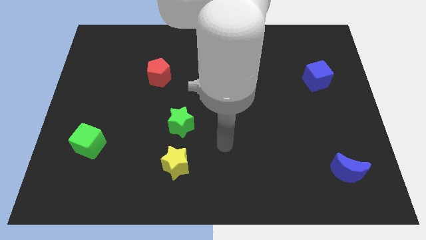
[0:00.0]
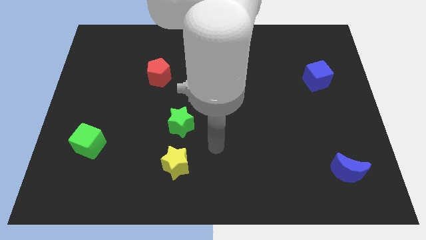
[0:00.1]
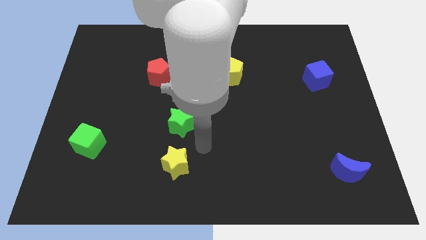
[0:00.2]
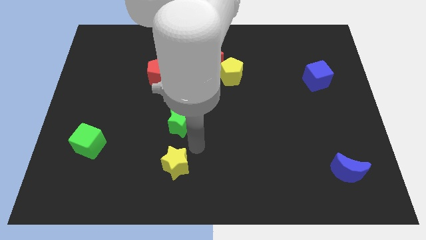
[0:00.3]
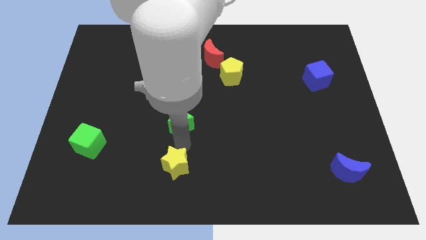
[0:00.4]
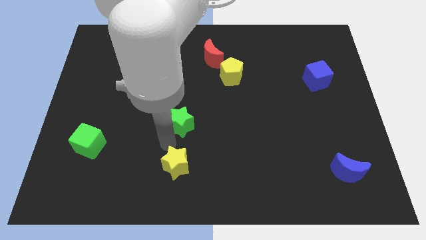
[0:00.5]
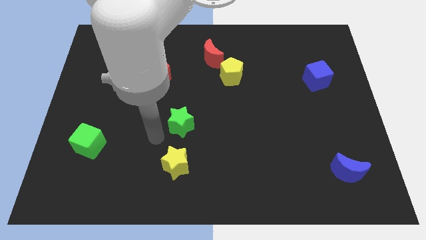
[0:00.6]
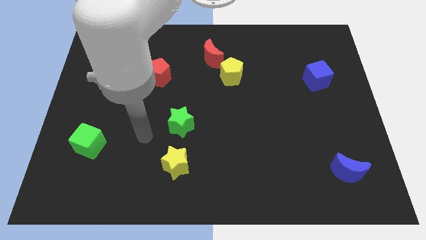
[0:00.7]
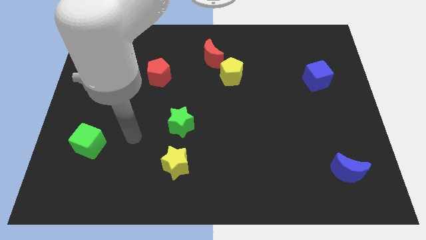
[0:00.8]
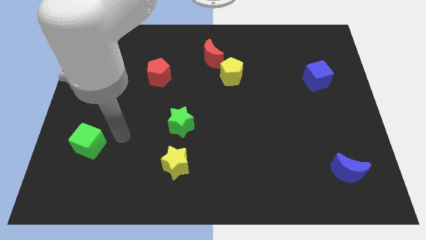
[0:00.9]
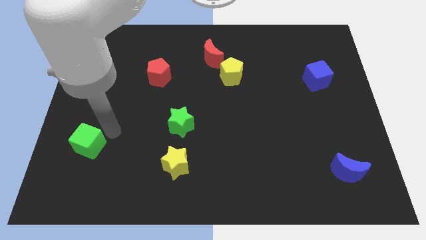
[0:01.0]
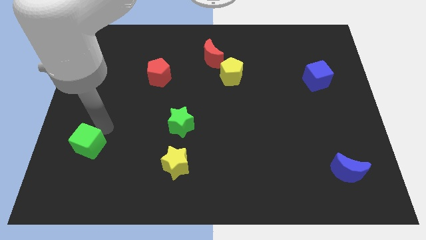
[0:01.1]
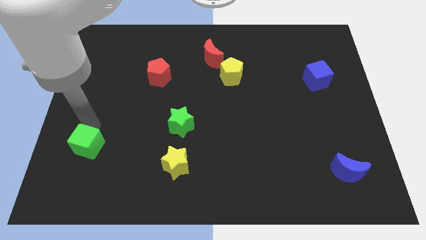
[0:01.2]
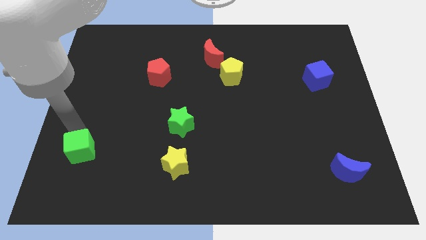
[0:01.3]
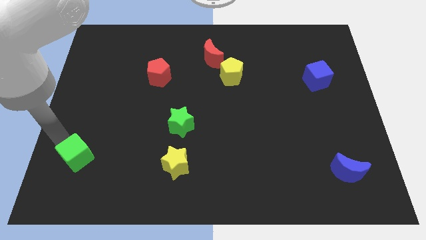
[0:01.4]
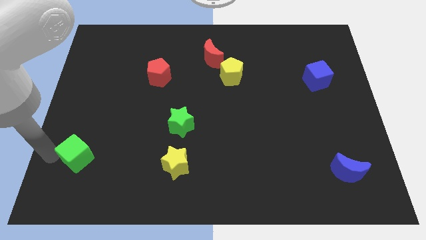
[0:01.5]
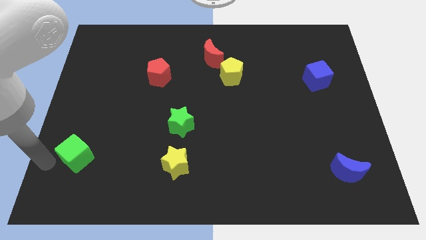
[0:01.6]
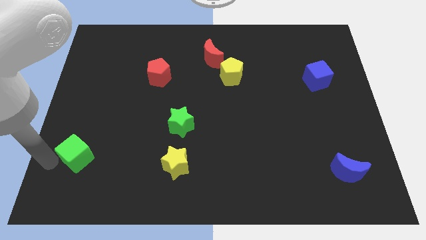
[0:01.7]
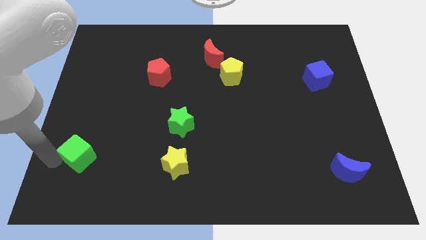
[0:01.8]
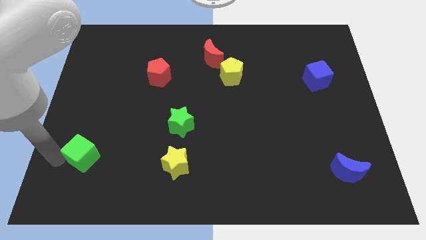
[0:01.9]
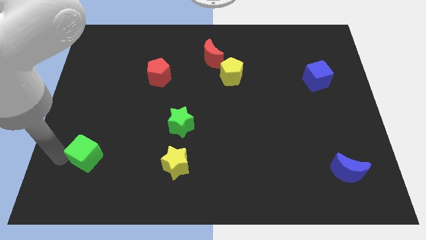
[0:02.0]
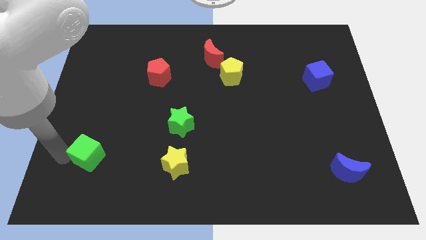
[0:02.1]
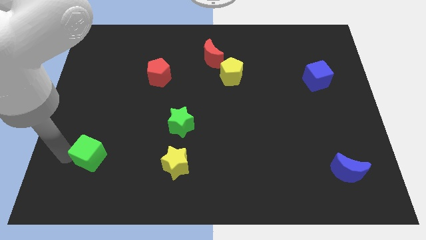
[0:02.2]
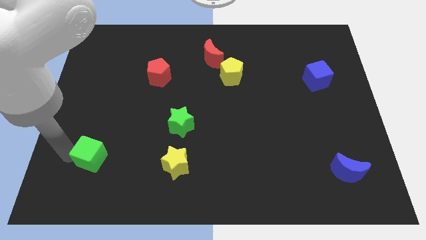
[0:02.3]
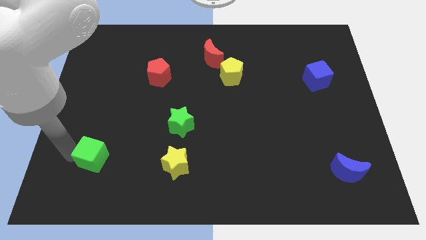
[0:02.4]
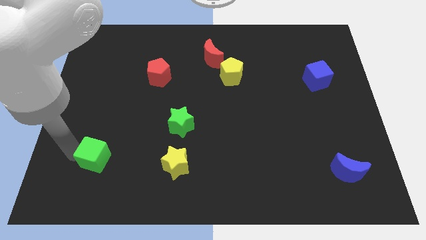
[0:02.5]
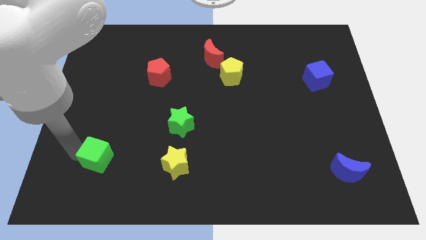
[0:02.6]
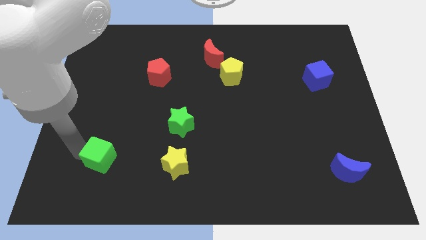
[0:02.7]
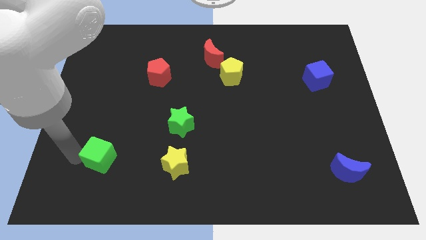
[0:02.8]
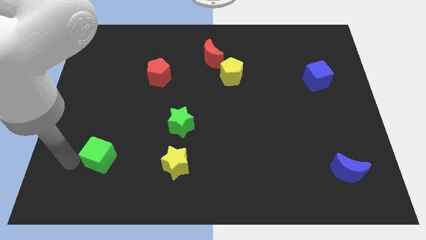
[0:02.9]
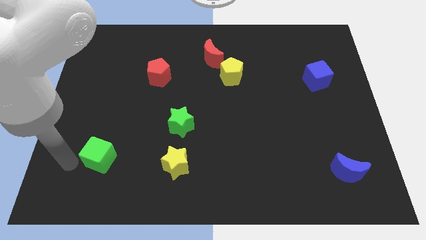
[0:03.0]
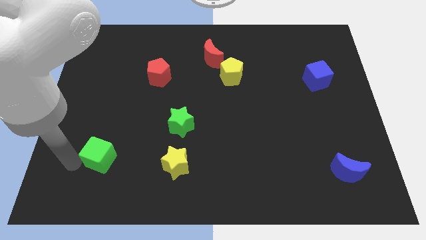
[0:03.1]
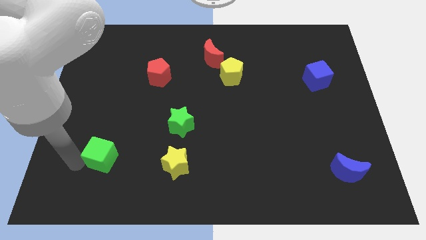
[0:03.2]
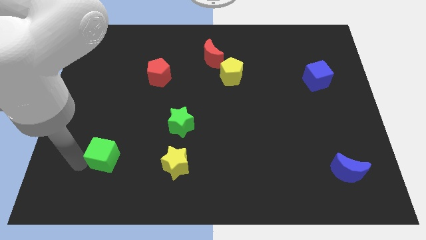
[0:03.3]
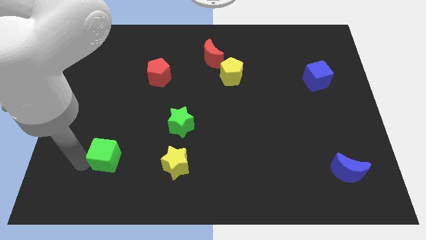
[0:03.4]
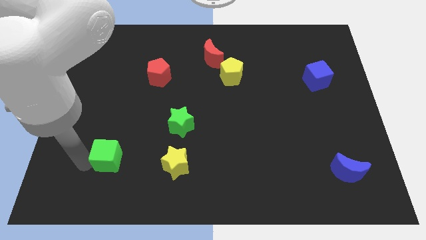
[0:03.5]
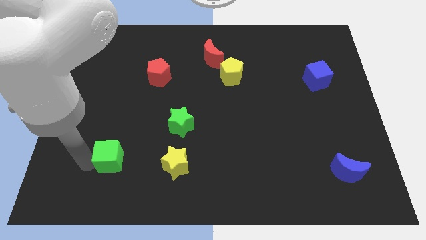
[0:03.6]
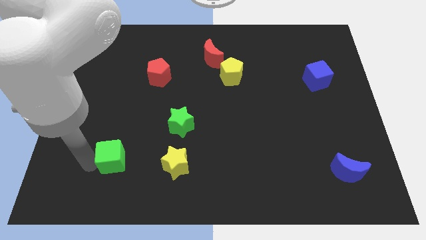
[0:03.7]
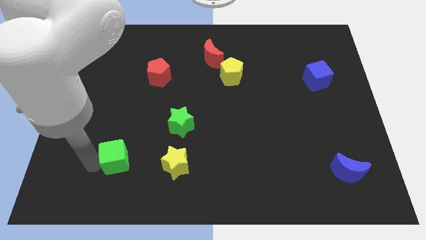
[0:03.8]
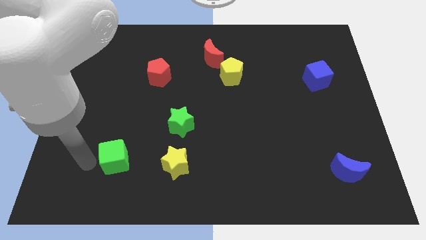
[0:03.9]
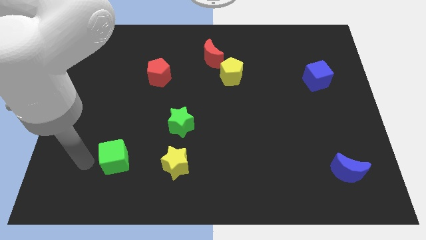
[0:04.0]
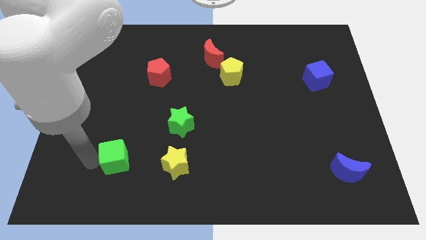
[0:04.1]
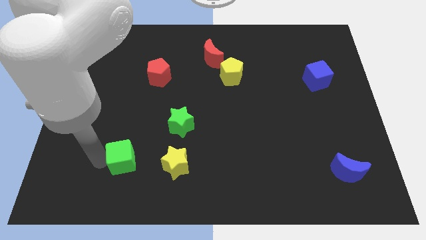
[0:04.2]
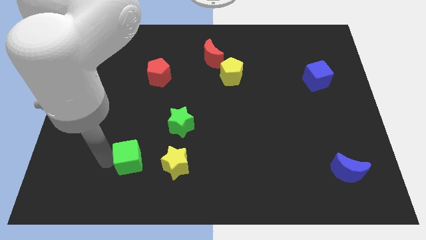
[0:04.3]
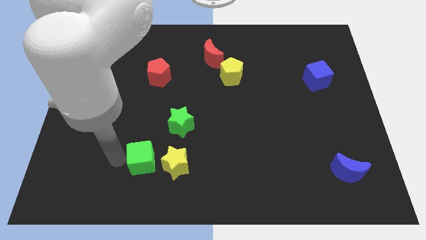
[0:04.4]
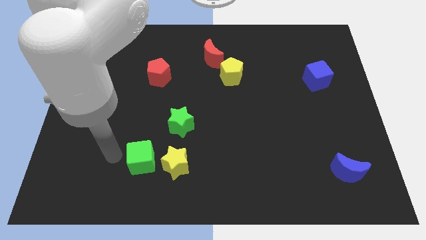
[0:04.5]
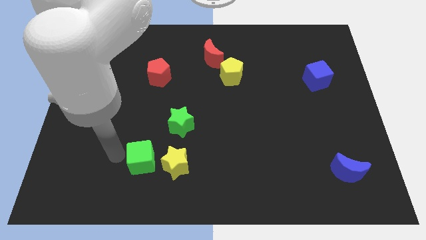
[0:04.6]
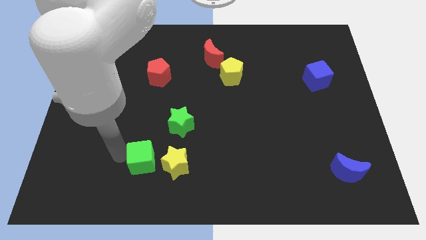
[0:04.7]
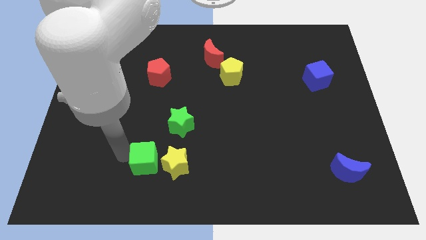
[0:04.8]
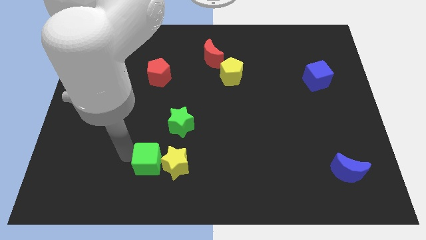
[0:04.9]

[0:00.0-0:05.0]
put the green cube towards the yellow star

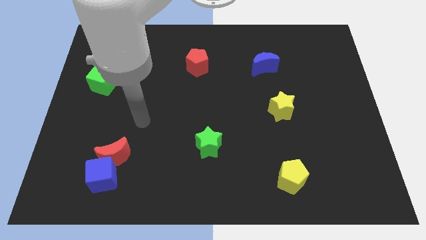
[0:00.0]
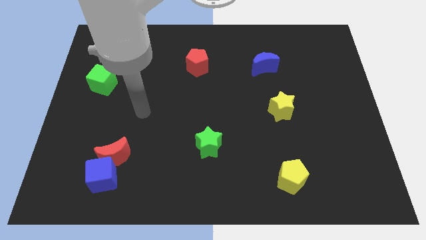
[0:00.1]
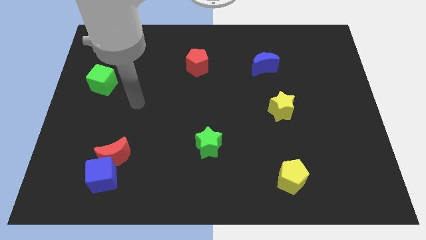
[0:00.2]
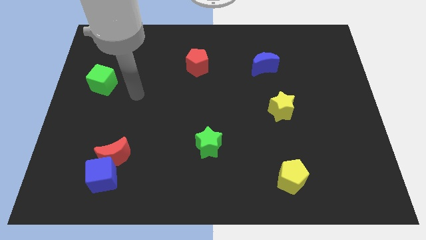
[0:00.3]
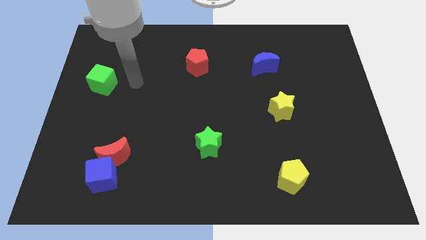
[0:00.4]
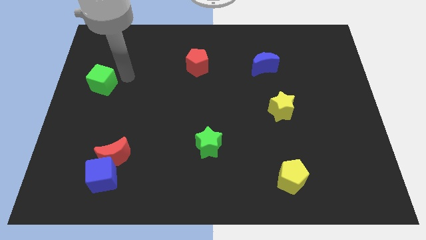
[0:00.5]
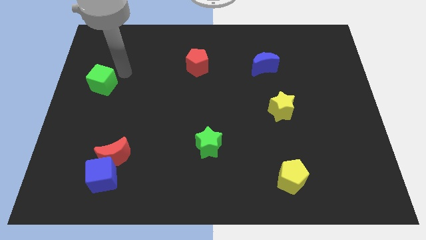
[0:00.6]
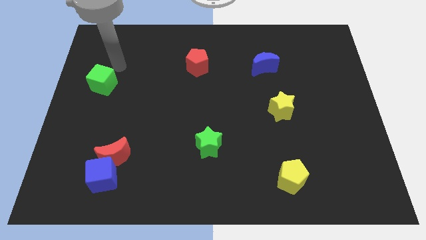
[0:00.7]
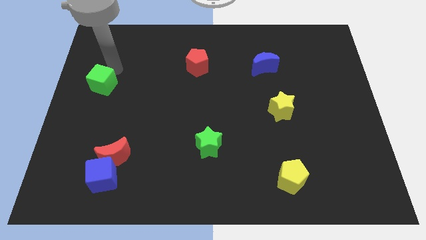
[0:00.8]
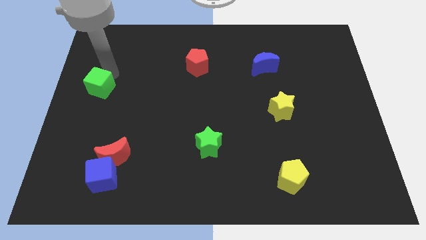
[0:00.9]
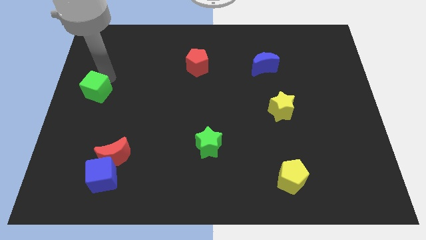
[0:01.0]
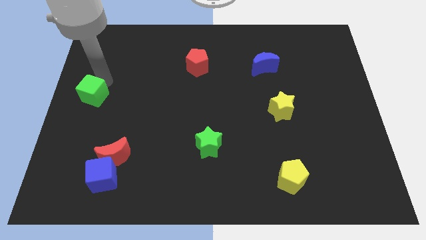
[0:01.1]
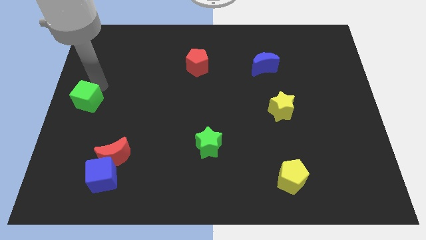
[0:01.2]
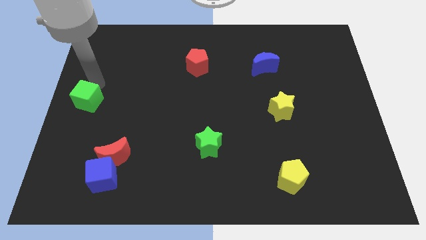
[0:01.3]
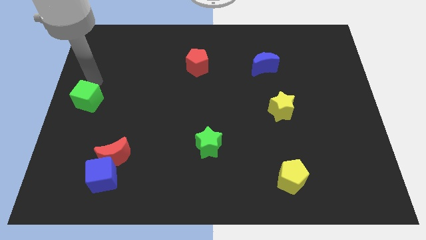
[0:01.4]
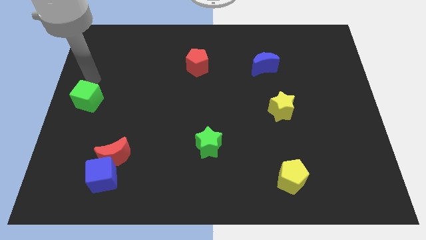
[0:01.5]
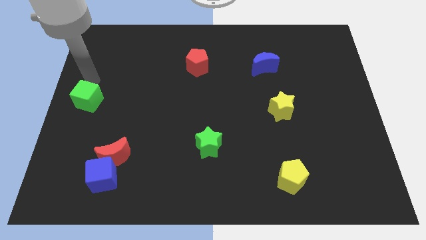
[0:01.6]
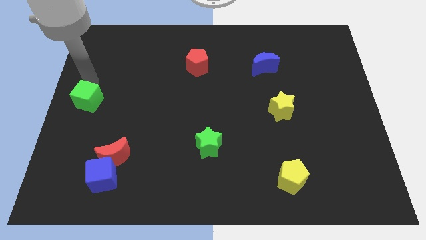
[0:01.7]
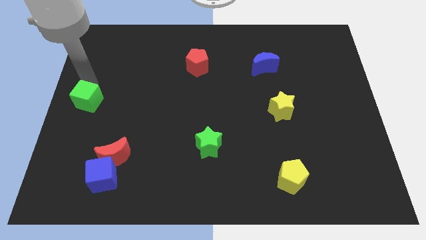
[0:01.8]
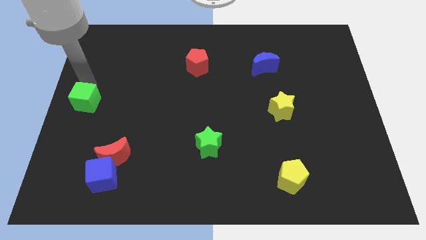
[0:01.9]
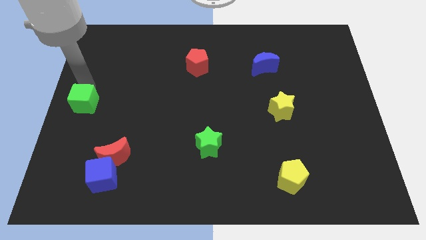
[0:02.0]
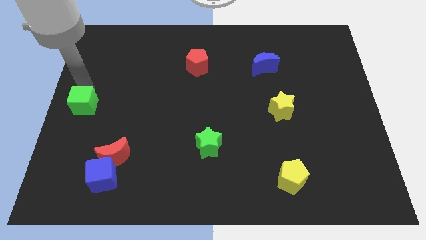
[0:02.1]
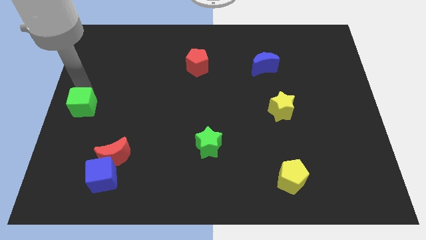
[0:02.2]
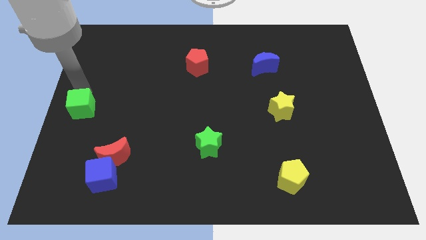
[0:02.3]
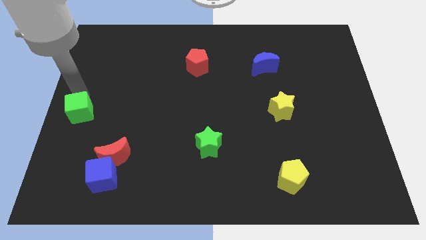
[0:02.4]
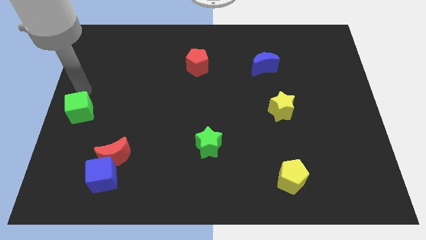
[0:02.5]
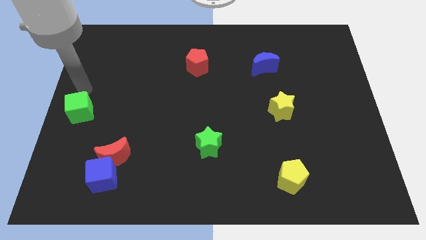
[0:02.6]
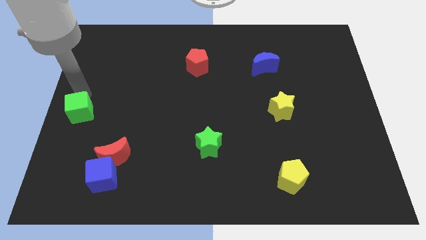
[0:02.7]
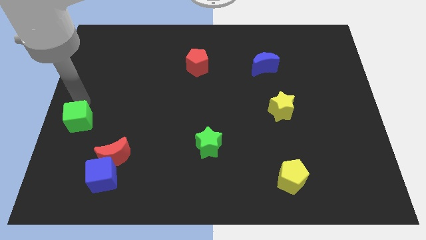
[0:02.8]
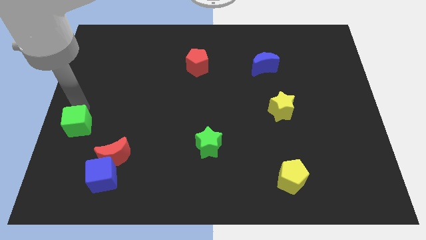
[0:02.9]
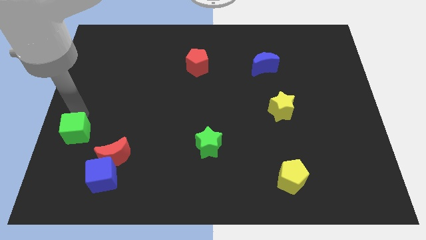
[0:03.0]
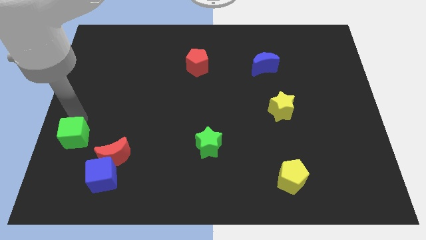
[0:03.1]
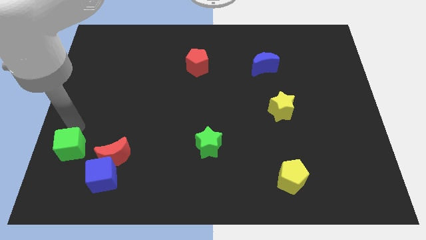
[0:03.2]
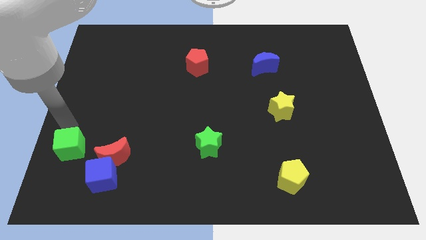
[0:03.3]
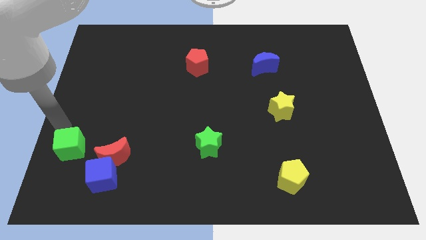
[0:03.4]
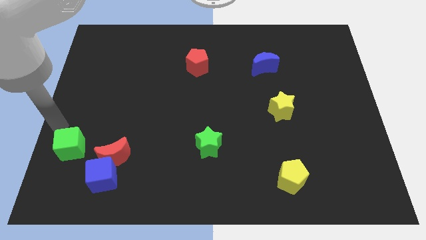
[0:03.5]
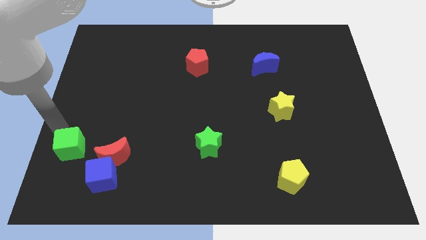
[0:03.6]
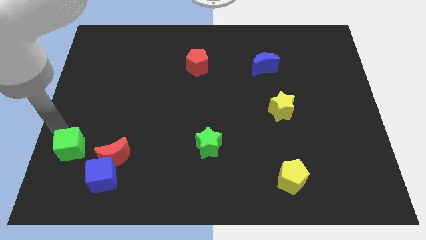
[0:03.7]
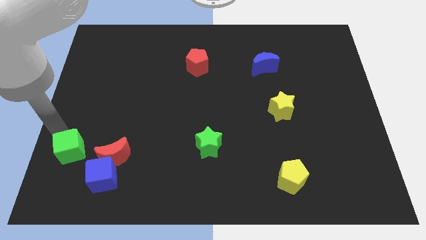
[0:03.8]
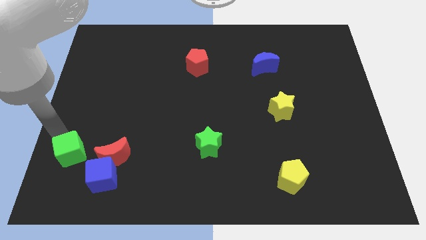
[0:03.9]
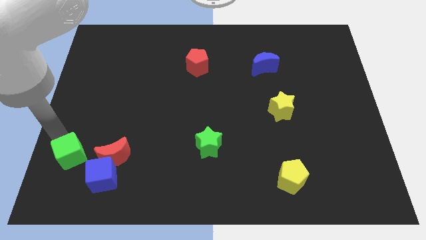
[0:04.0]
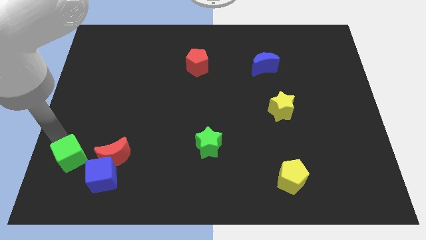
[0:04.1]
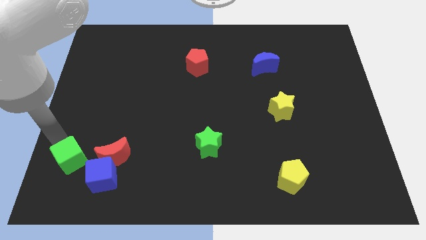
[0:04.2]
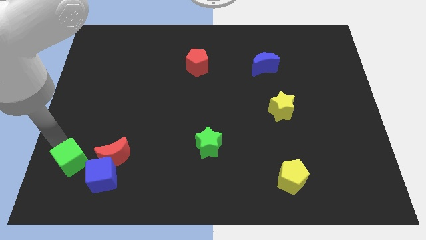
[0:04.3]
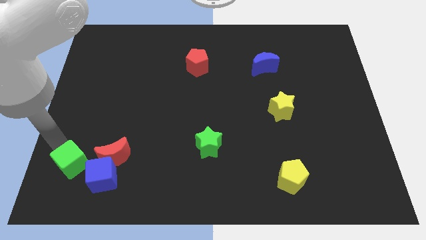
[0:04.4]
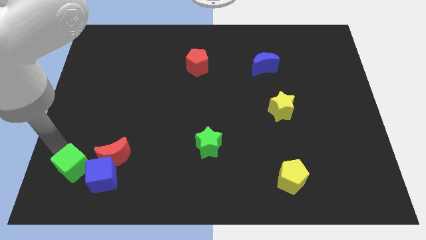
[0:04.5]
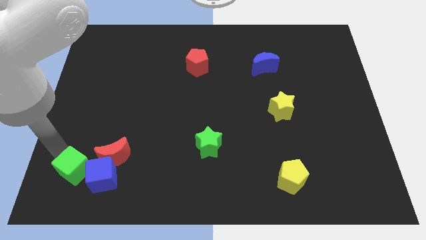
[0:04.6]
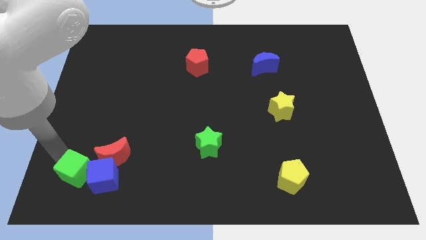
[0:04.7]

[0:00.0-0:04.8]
put the green cube next to the blue cube
